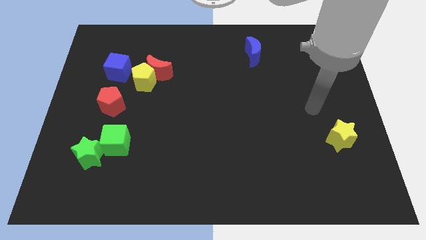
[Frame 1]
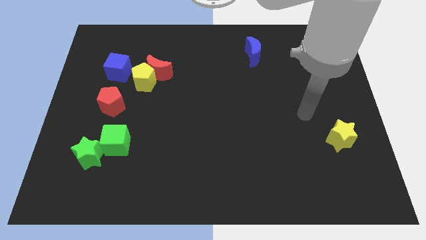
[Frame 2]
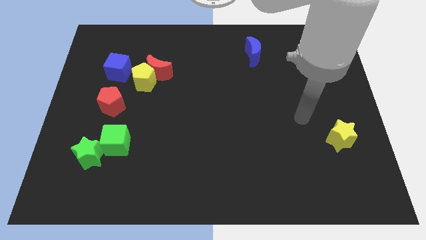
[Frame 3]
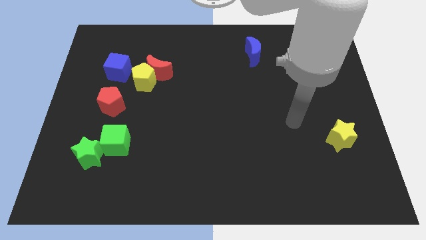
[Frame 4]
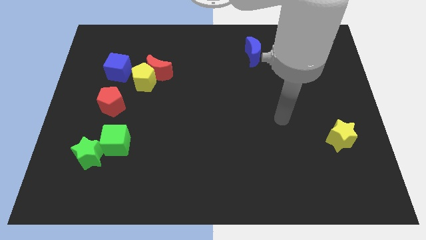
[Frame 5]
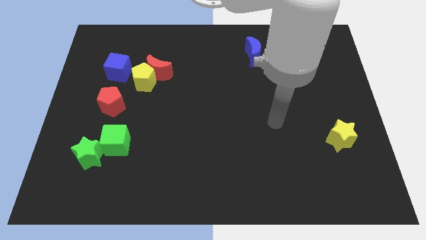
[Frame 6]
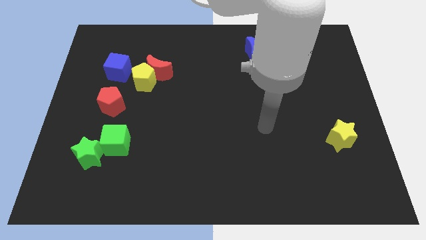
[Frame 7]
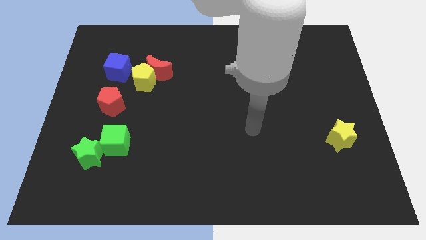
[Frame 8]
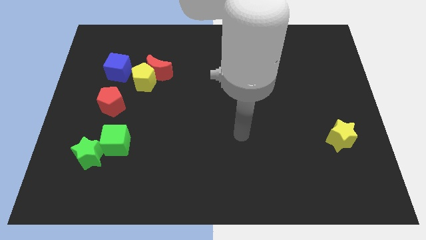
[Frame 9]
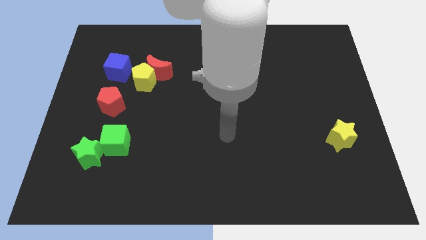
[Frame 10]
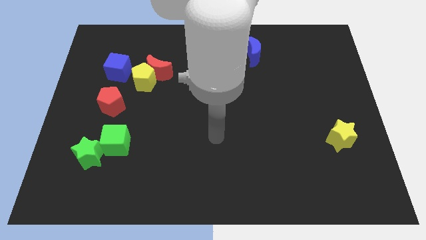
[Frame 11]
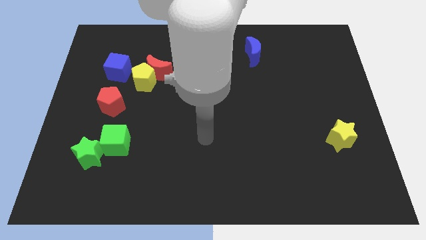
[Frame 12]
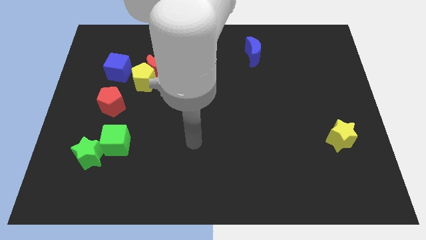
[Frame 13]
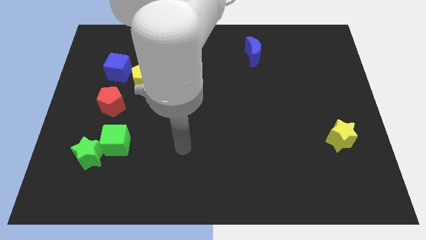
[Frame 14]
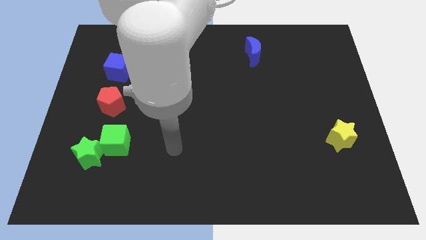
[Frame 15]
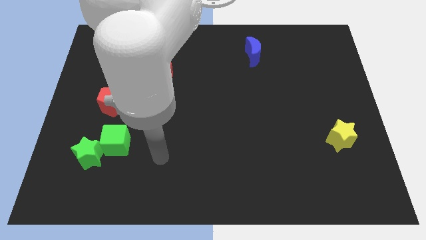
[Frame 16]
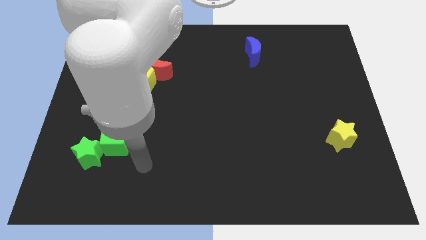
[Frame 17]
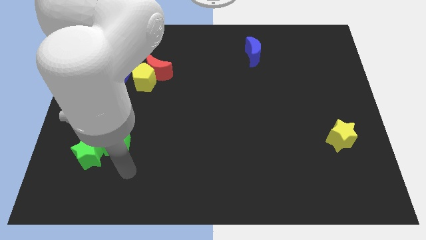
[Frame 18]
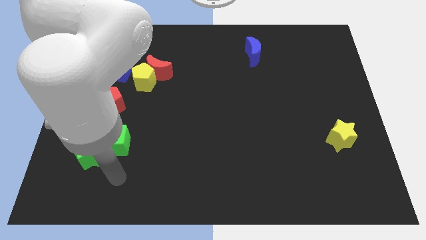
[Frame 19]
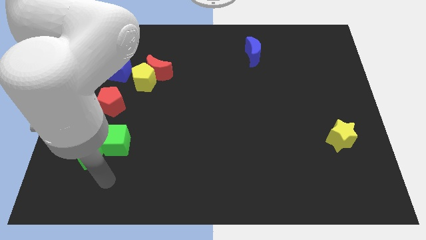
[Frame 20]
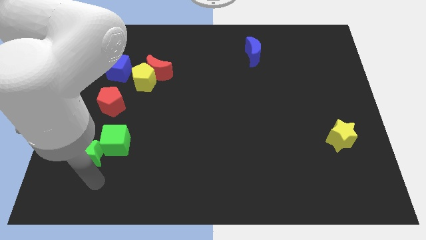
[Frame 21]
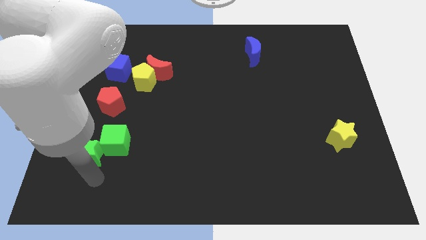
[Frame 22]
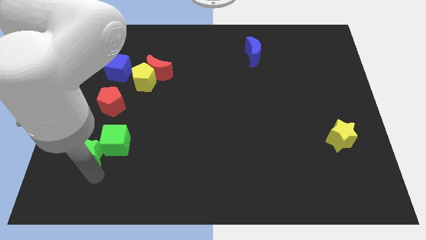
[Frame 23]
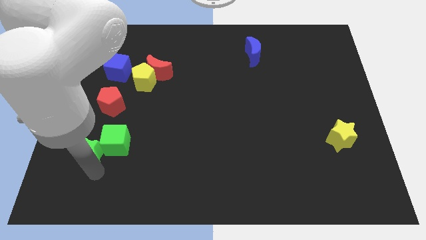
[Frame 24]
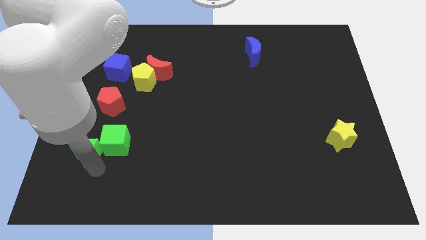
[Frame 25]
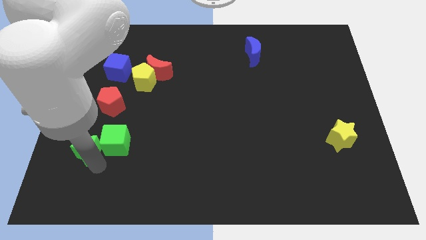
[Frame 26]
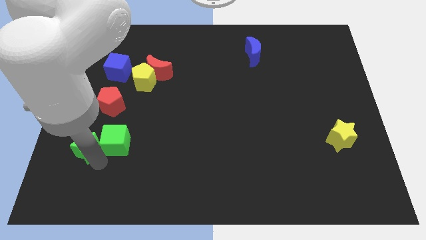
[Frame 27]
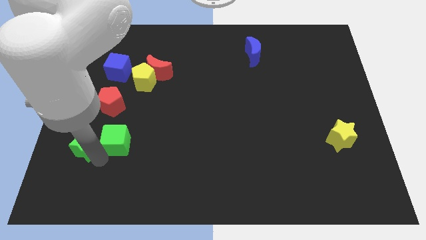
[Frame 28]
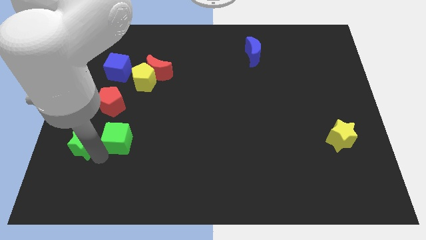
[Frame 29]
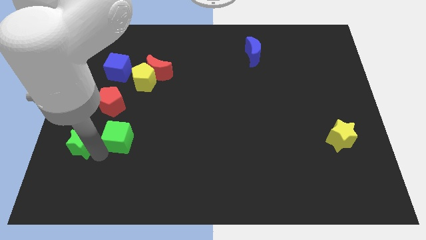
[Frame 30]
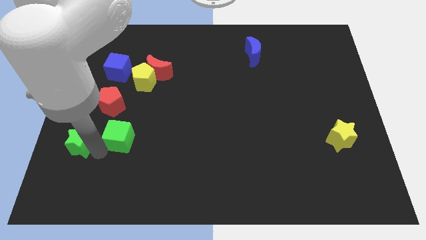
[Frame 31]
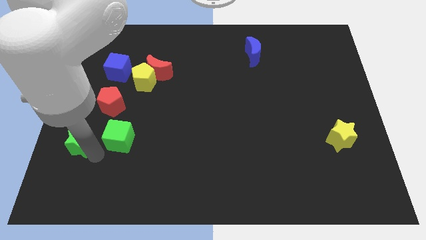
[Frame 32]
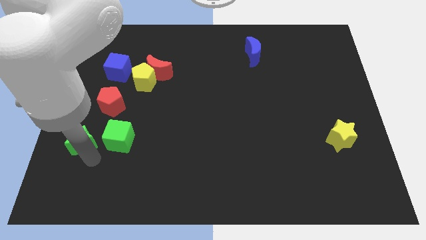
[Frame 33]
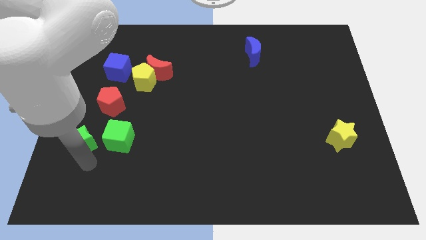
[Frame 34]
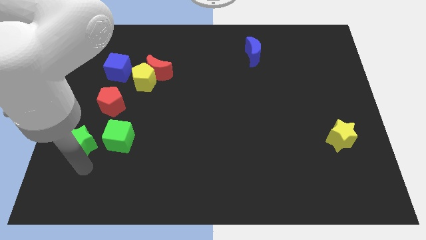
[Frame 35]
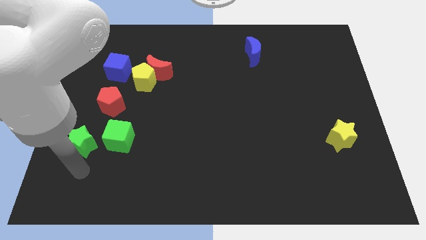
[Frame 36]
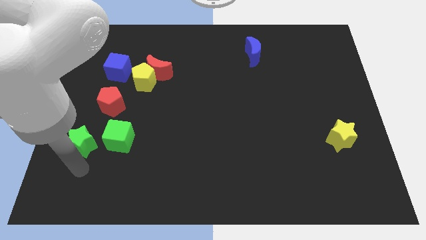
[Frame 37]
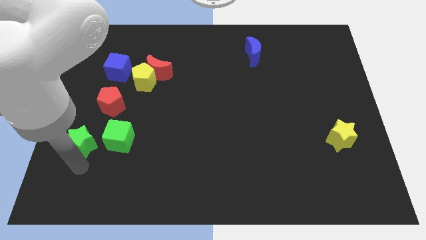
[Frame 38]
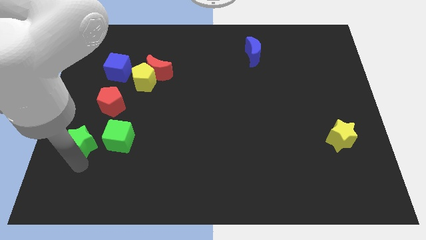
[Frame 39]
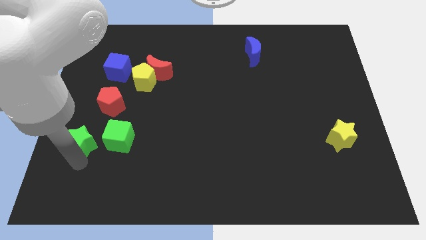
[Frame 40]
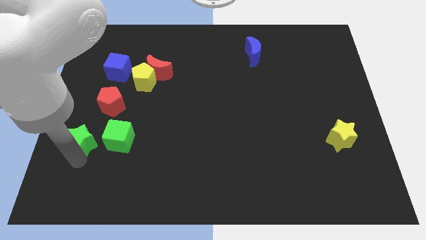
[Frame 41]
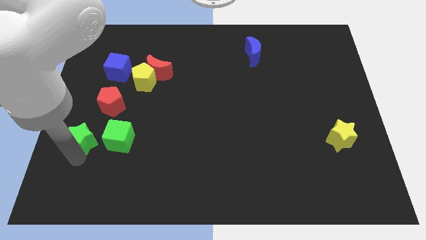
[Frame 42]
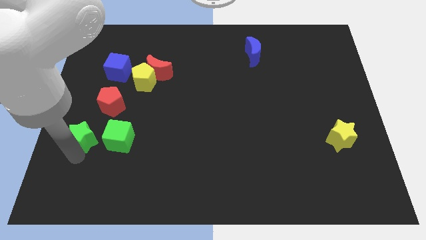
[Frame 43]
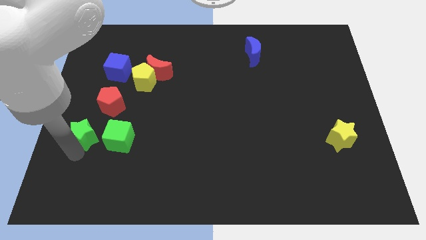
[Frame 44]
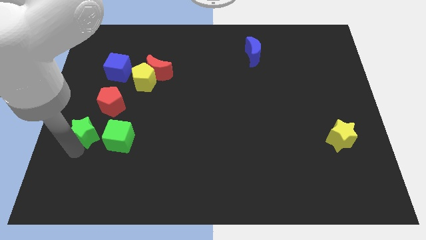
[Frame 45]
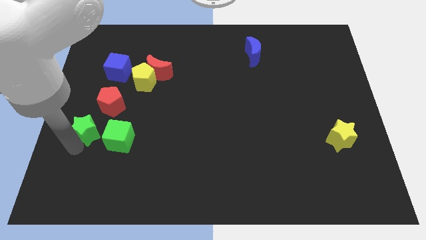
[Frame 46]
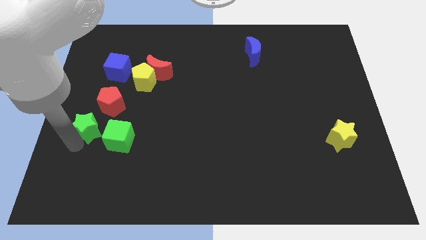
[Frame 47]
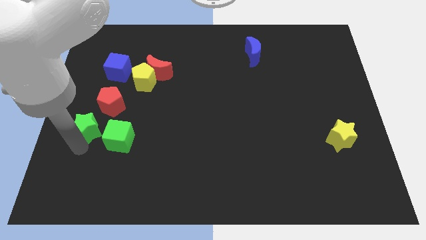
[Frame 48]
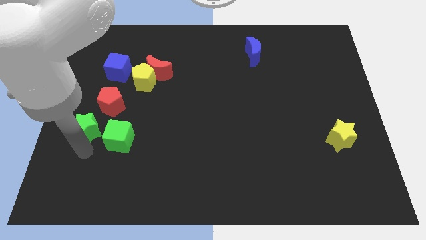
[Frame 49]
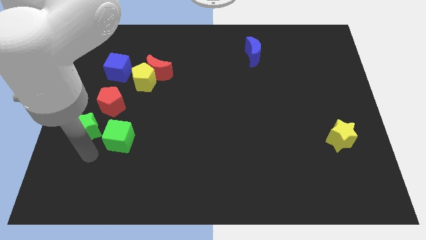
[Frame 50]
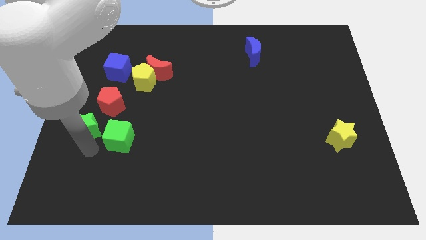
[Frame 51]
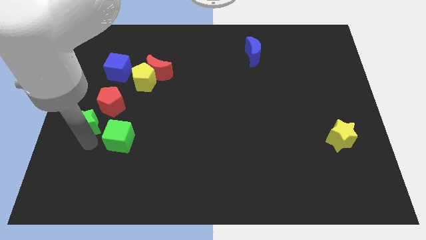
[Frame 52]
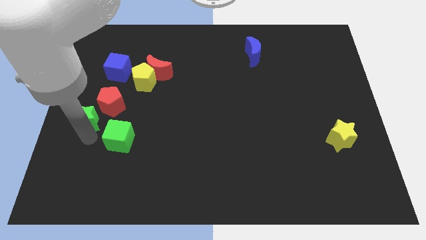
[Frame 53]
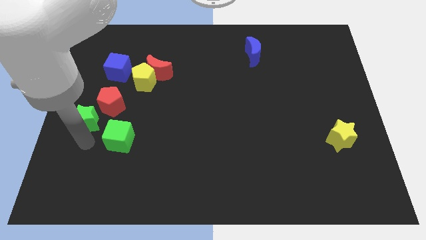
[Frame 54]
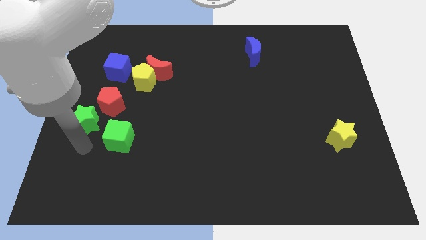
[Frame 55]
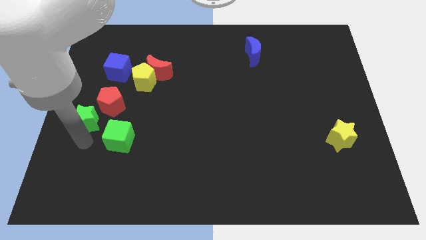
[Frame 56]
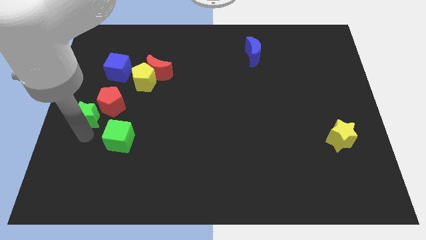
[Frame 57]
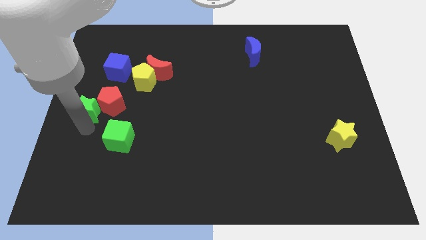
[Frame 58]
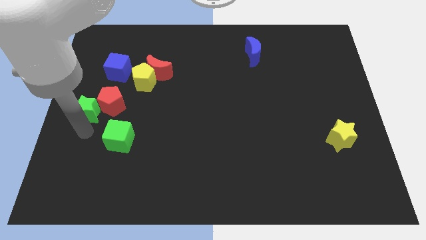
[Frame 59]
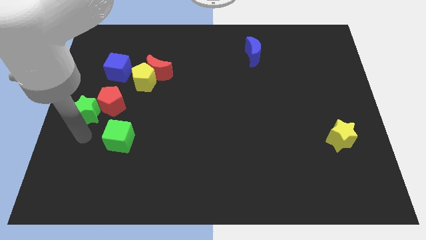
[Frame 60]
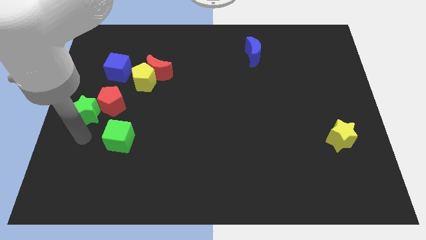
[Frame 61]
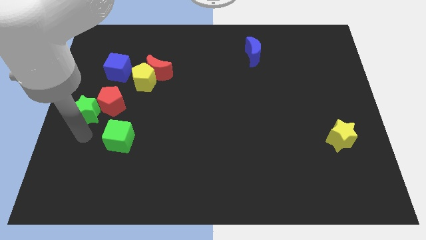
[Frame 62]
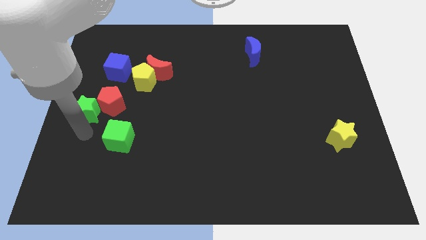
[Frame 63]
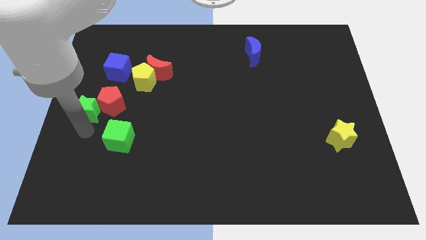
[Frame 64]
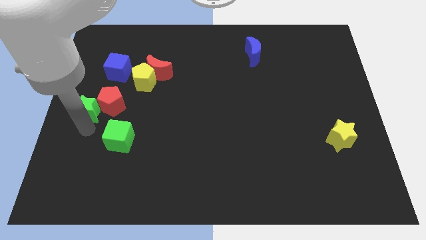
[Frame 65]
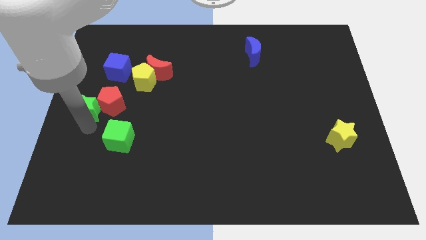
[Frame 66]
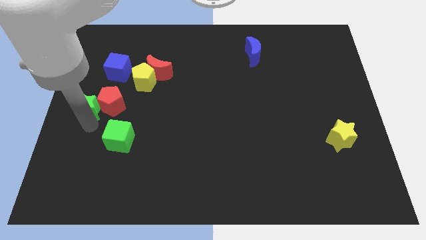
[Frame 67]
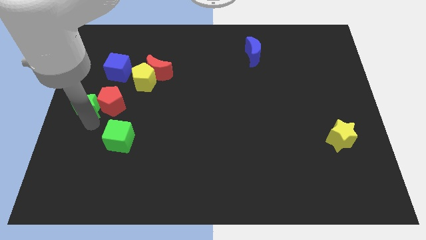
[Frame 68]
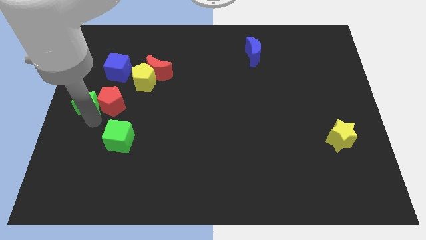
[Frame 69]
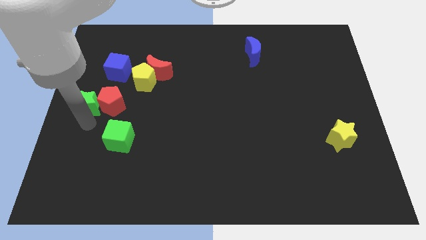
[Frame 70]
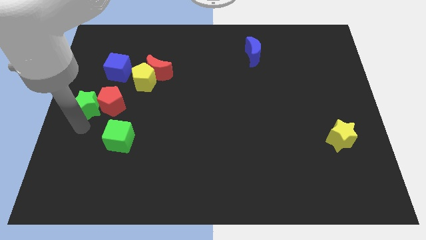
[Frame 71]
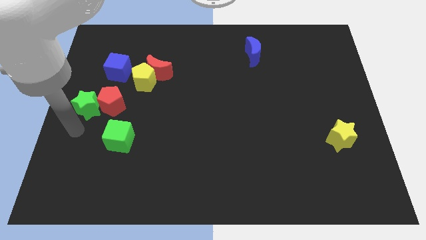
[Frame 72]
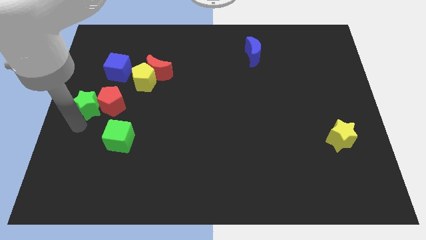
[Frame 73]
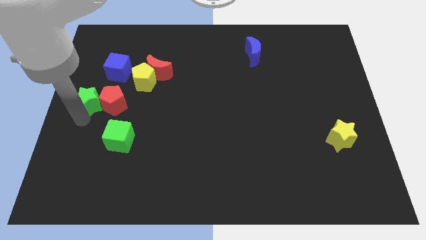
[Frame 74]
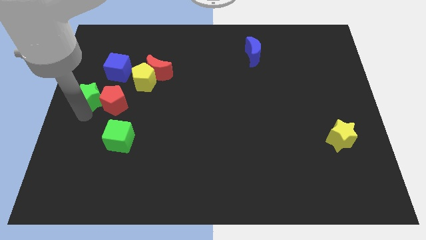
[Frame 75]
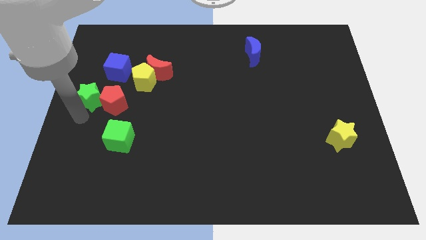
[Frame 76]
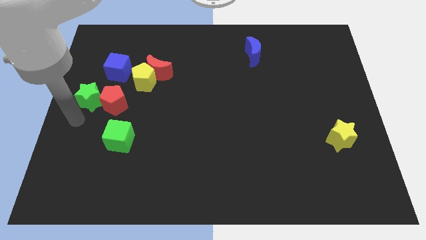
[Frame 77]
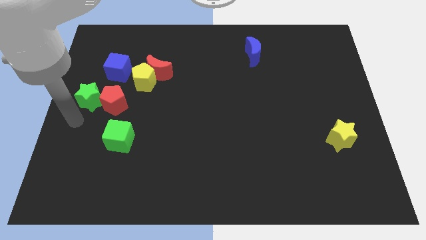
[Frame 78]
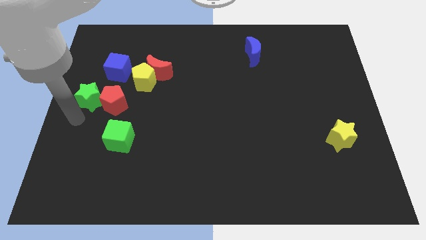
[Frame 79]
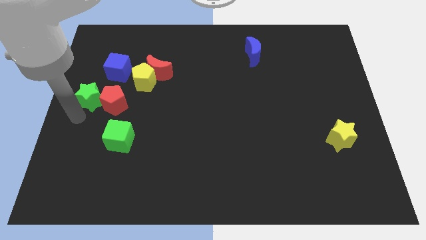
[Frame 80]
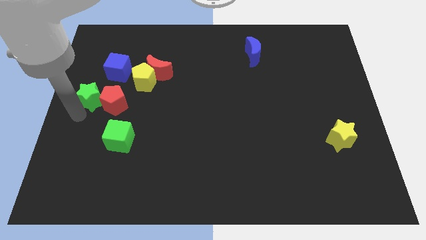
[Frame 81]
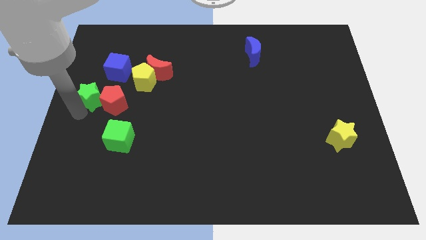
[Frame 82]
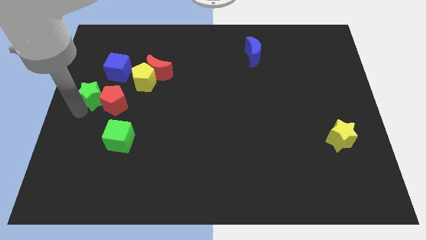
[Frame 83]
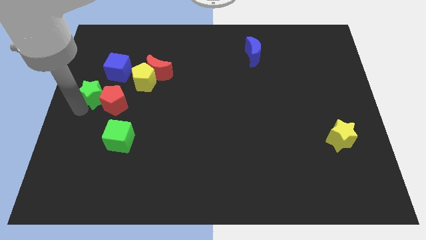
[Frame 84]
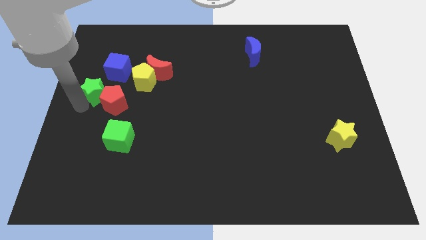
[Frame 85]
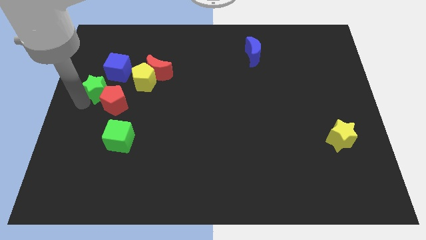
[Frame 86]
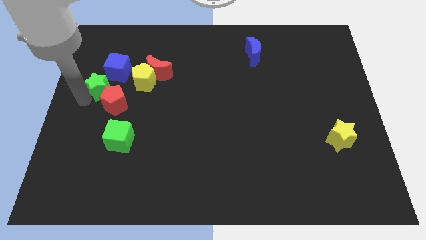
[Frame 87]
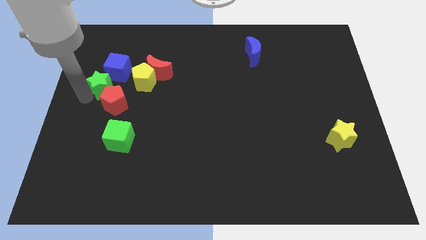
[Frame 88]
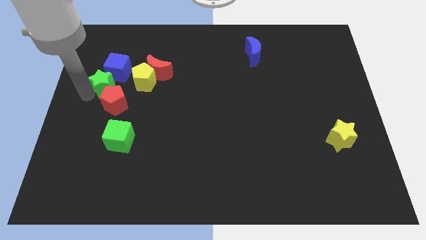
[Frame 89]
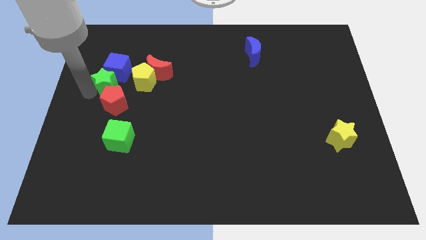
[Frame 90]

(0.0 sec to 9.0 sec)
move the green star towards the blue cube
